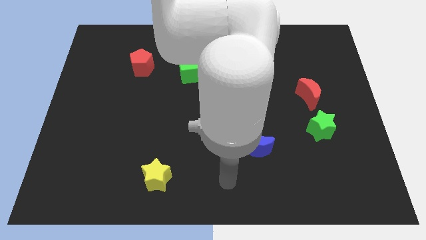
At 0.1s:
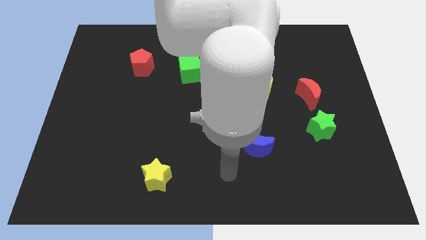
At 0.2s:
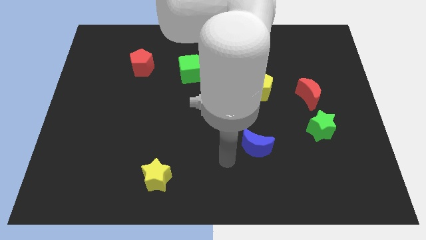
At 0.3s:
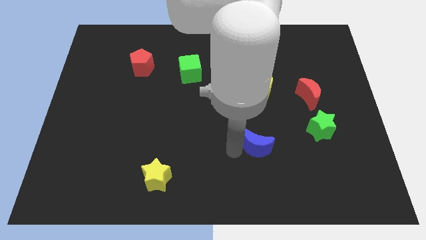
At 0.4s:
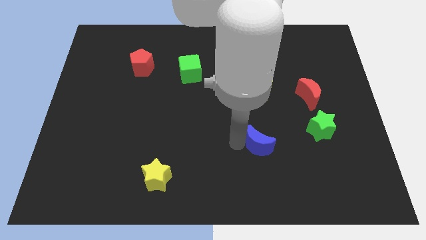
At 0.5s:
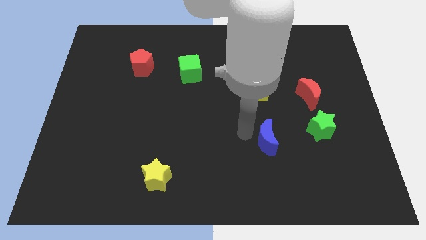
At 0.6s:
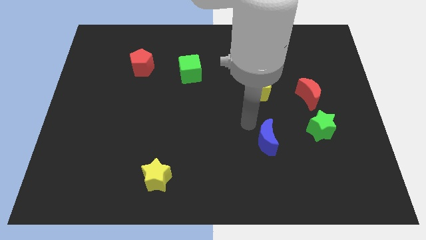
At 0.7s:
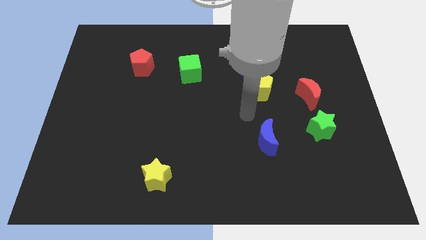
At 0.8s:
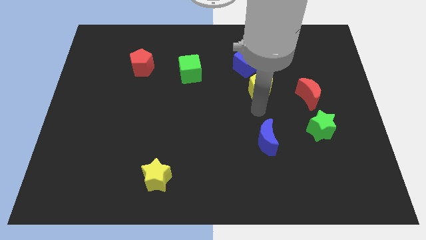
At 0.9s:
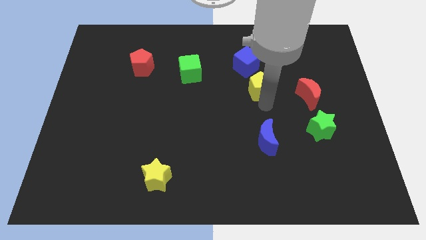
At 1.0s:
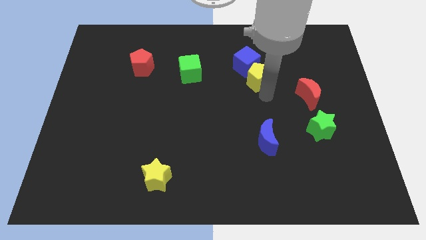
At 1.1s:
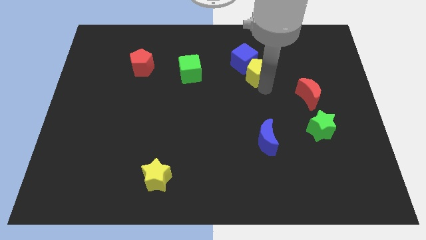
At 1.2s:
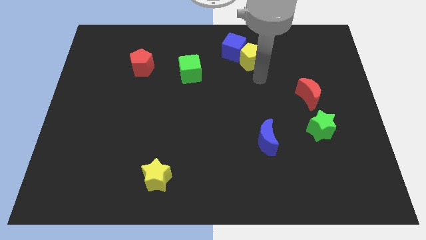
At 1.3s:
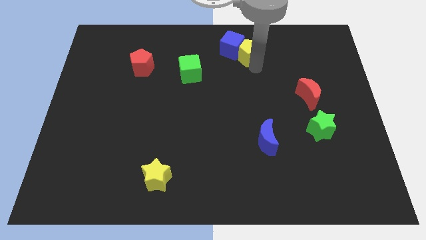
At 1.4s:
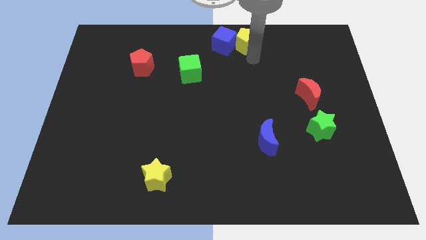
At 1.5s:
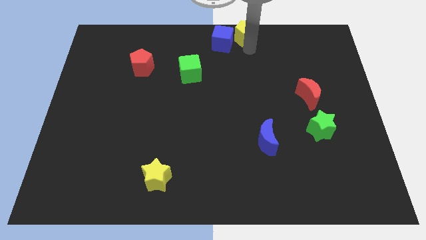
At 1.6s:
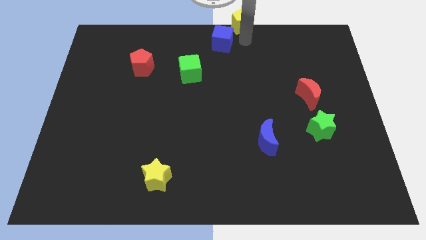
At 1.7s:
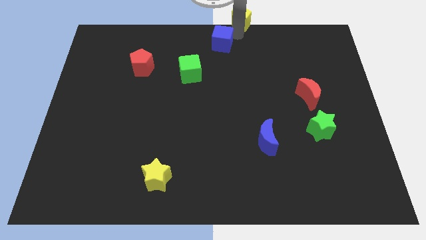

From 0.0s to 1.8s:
separate the blue cube from the yellow pentagon

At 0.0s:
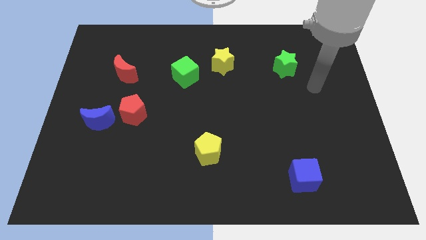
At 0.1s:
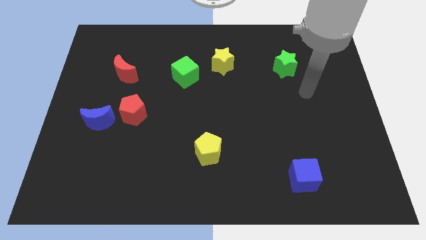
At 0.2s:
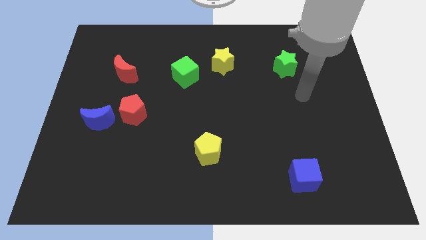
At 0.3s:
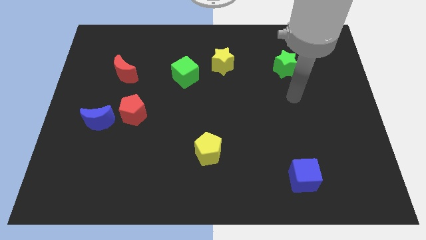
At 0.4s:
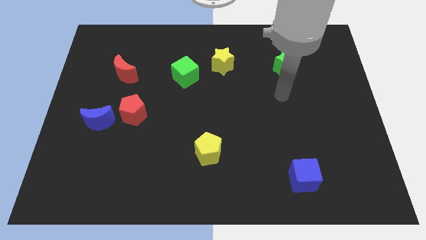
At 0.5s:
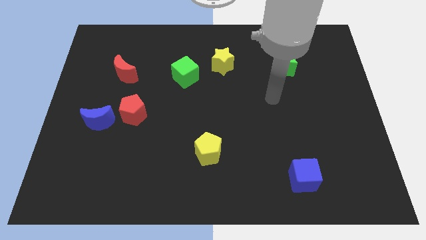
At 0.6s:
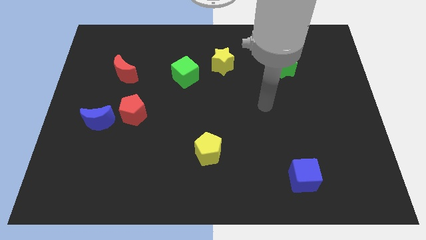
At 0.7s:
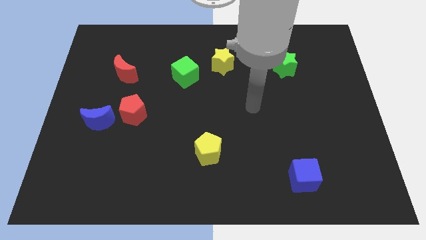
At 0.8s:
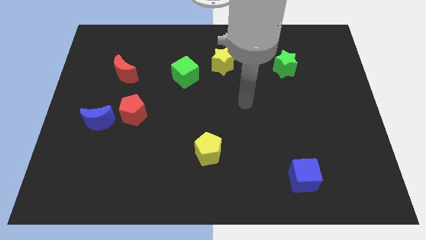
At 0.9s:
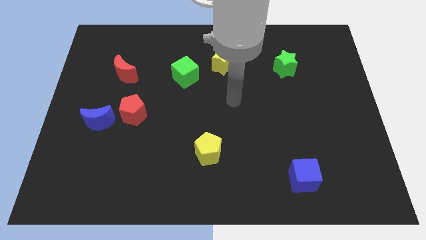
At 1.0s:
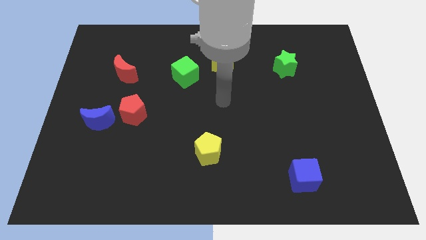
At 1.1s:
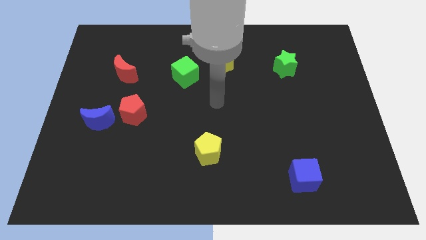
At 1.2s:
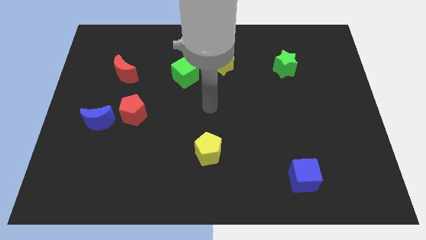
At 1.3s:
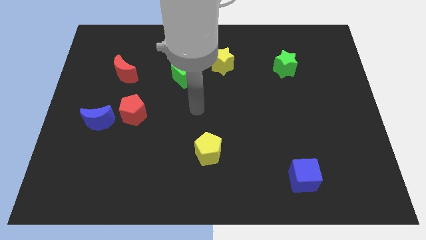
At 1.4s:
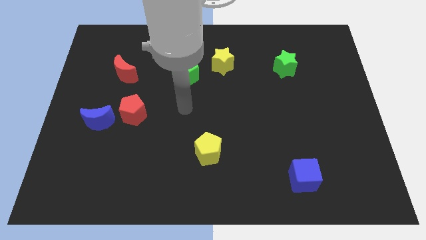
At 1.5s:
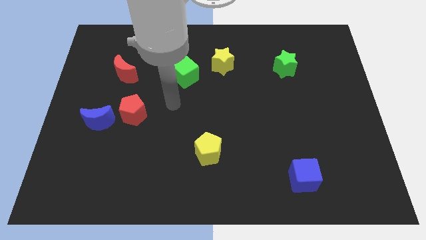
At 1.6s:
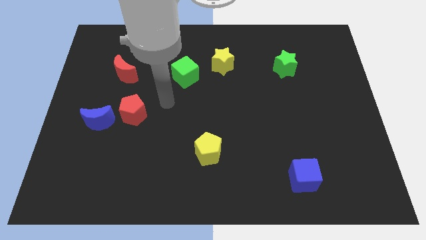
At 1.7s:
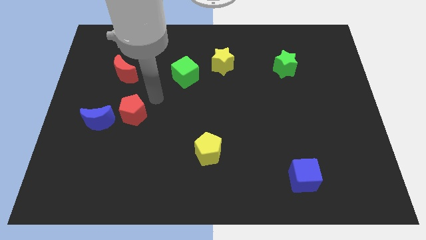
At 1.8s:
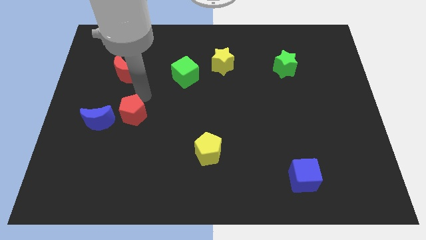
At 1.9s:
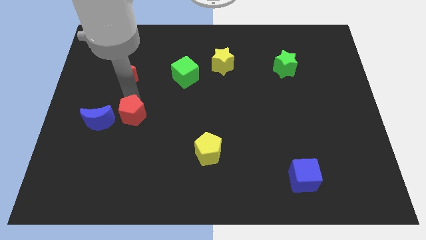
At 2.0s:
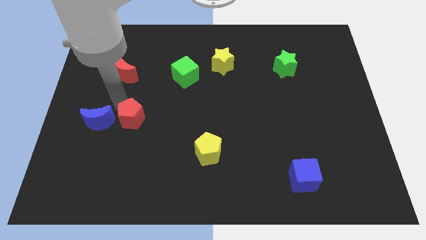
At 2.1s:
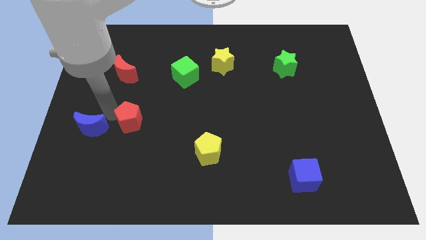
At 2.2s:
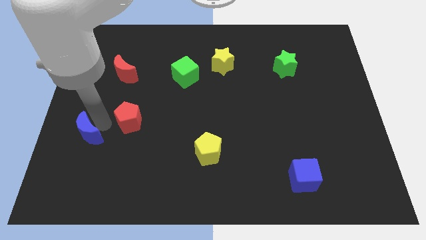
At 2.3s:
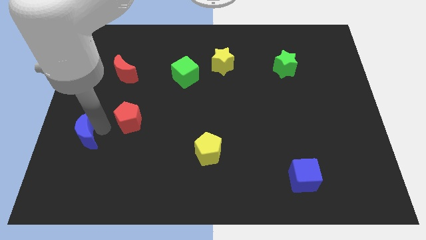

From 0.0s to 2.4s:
pull the red pentagon apart from the blue moon

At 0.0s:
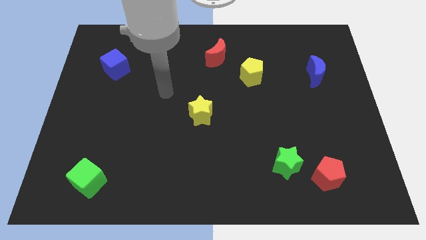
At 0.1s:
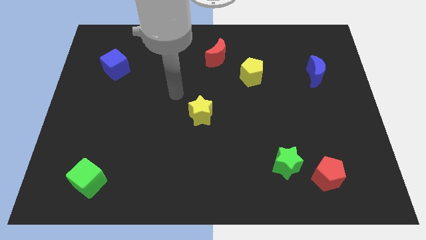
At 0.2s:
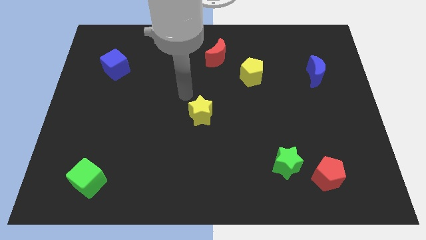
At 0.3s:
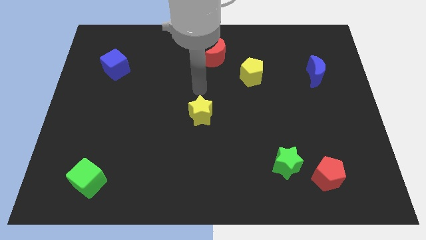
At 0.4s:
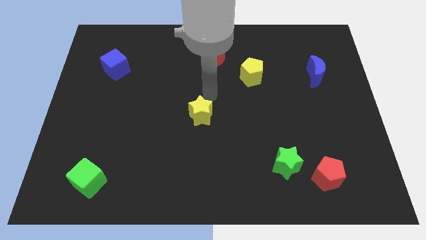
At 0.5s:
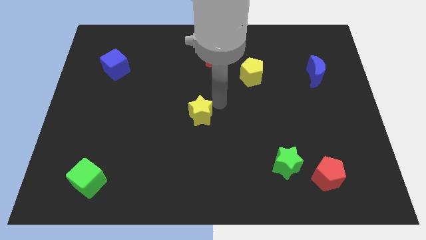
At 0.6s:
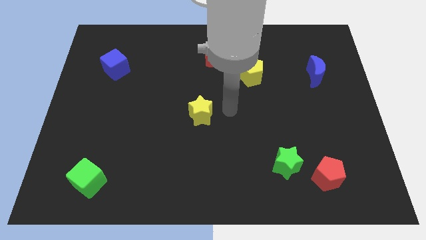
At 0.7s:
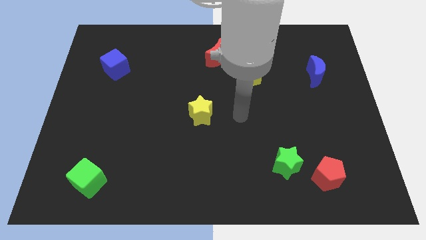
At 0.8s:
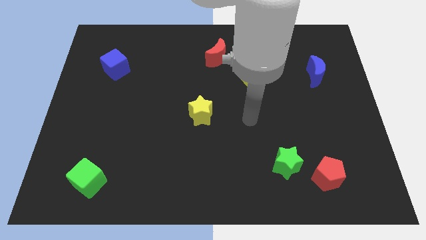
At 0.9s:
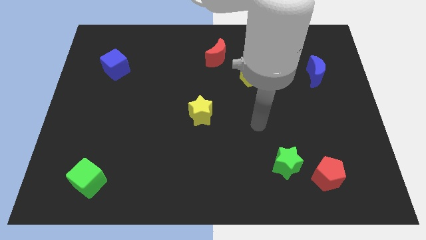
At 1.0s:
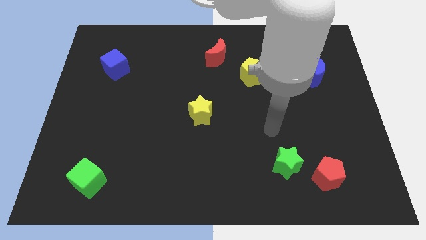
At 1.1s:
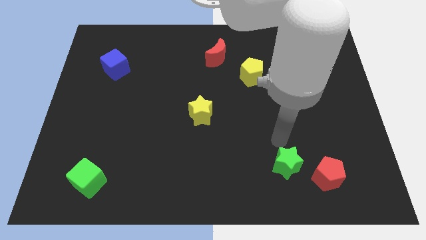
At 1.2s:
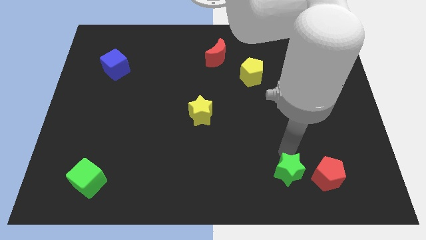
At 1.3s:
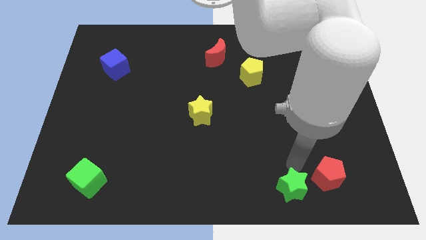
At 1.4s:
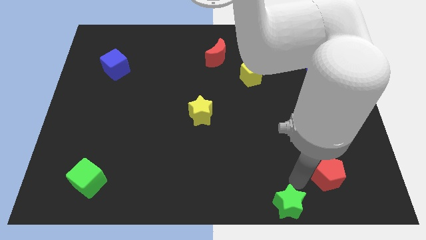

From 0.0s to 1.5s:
pull the red pentagon apart from the green star

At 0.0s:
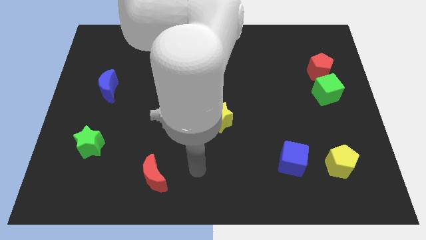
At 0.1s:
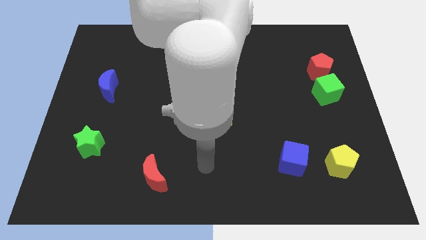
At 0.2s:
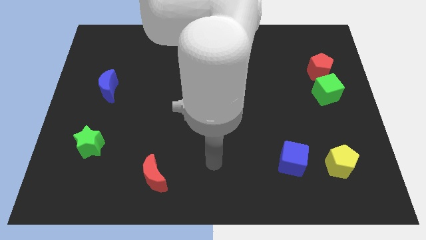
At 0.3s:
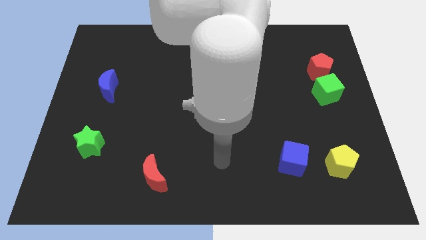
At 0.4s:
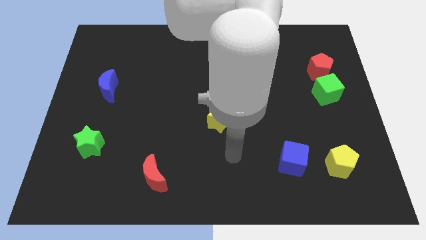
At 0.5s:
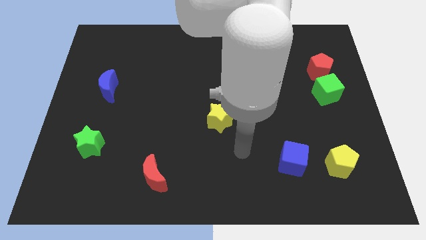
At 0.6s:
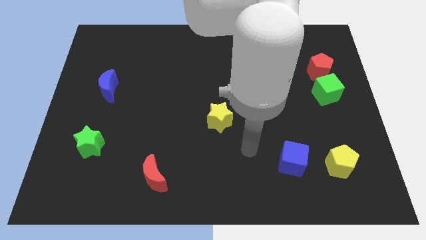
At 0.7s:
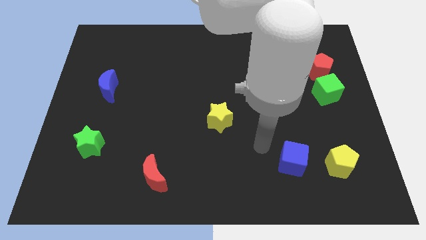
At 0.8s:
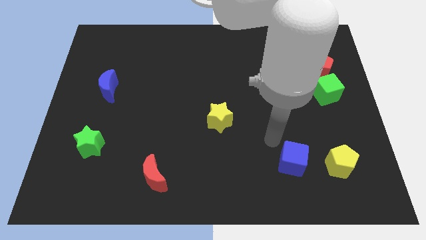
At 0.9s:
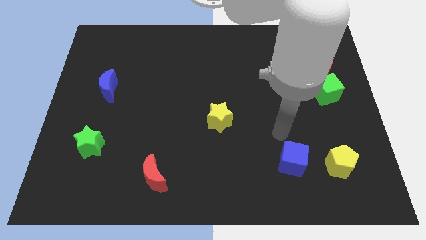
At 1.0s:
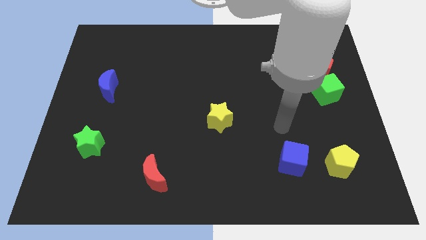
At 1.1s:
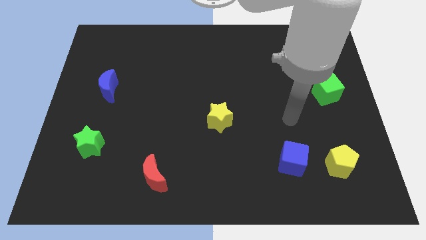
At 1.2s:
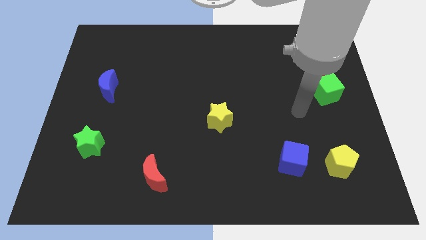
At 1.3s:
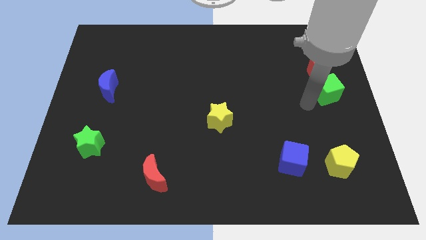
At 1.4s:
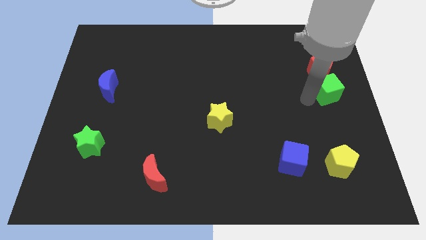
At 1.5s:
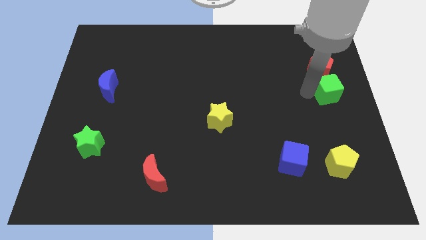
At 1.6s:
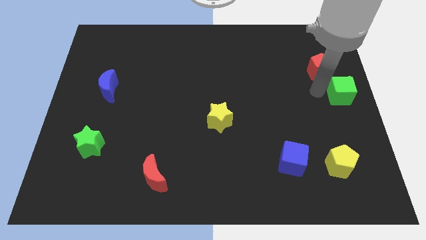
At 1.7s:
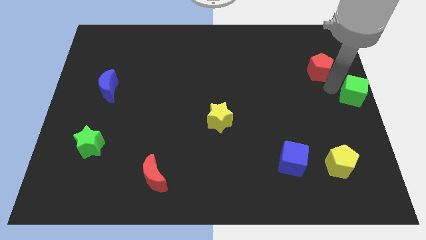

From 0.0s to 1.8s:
pull the red pentagon apart from the green cube

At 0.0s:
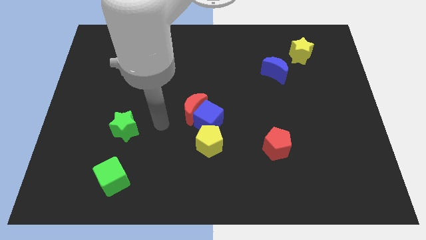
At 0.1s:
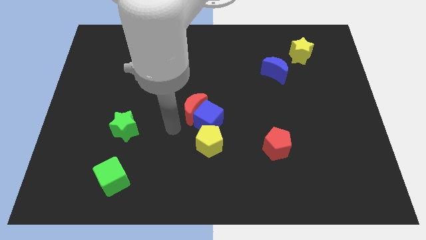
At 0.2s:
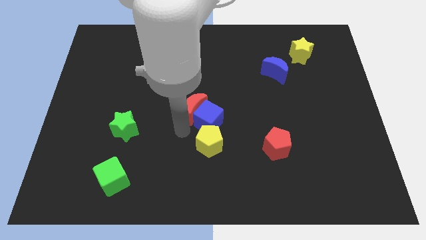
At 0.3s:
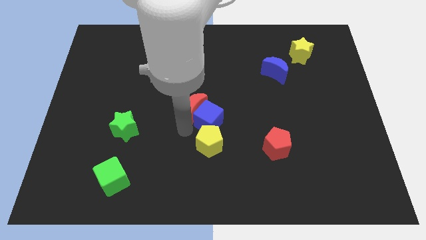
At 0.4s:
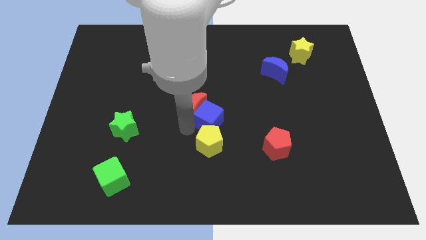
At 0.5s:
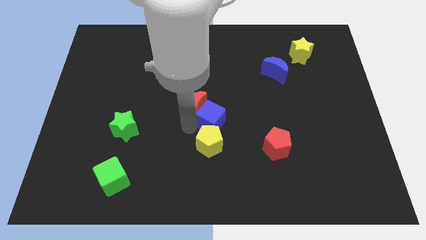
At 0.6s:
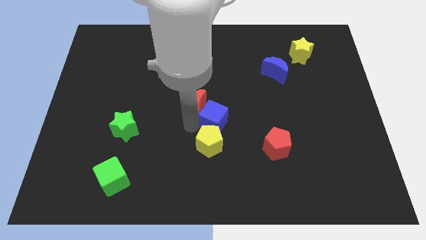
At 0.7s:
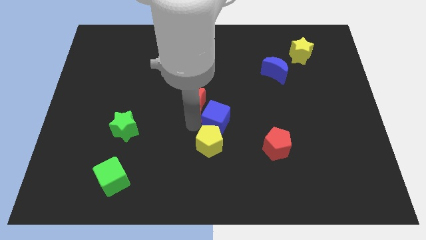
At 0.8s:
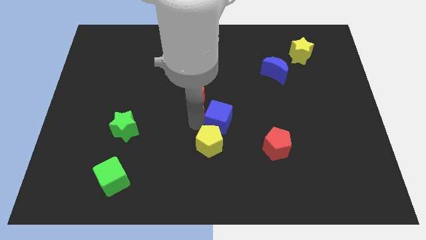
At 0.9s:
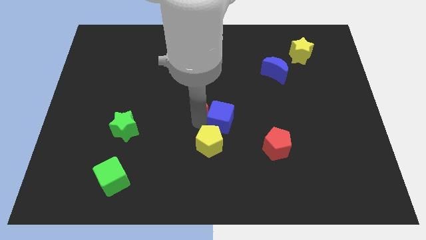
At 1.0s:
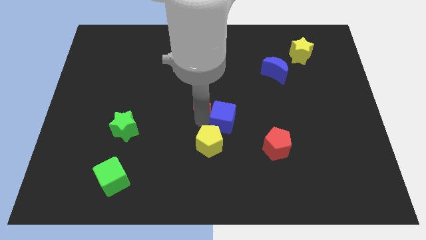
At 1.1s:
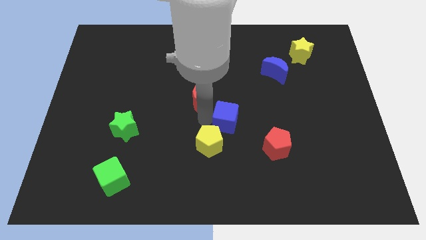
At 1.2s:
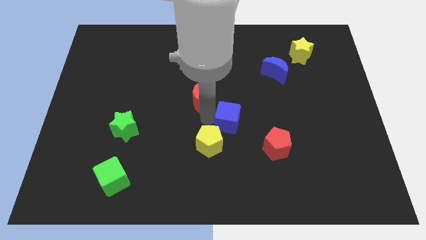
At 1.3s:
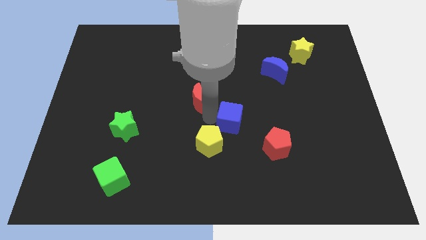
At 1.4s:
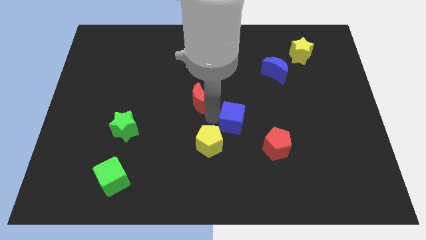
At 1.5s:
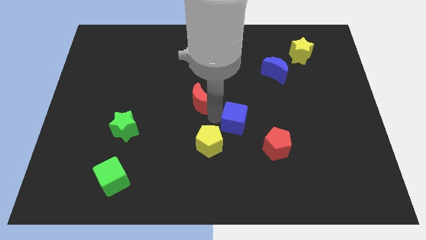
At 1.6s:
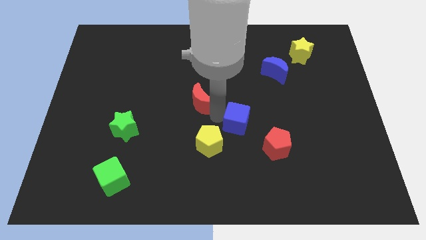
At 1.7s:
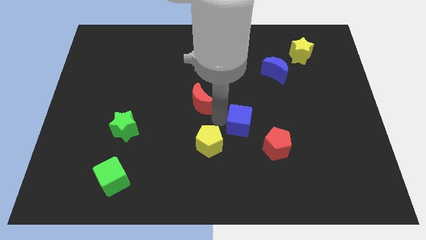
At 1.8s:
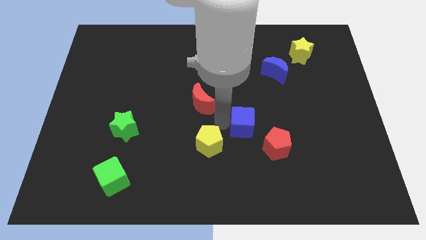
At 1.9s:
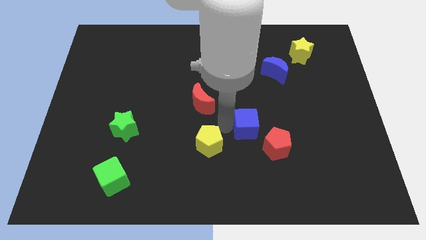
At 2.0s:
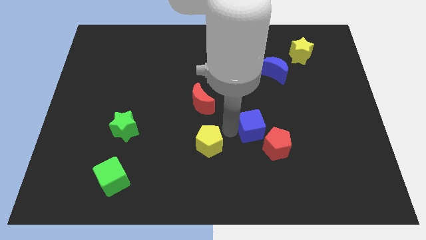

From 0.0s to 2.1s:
pull the blue cube apart from the red moon and yellow pentagon
